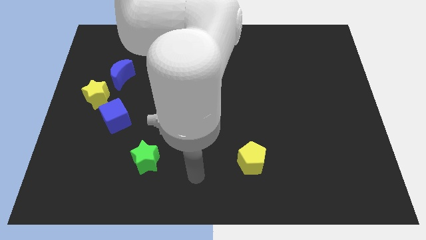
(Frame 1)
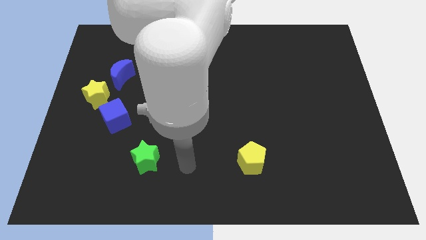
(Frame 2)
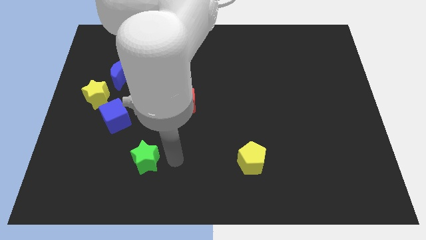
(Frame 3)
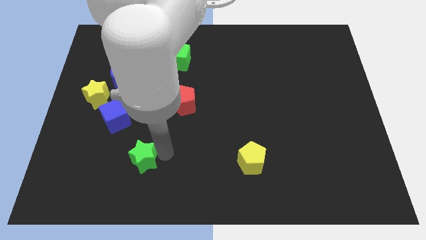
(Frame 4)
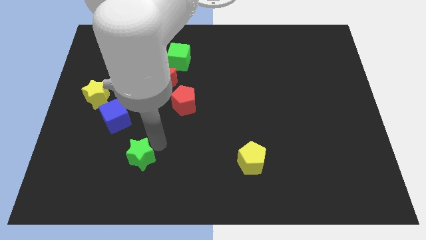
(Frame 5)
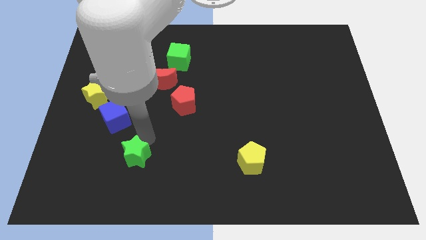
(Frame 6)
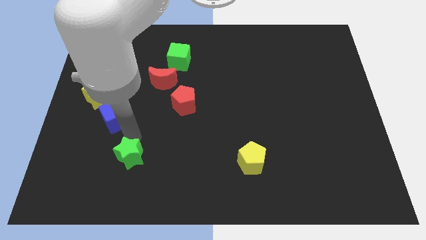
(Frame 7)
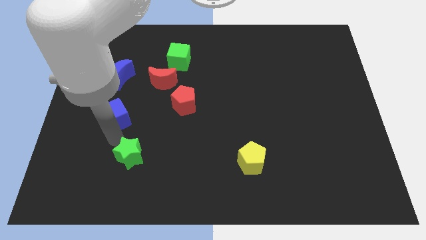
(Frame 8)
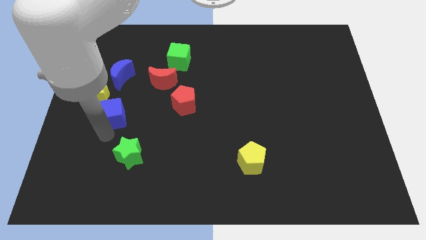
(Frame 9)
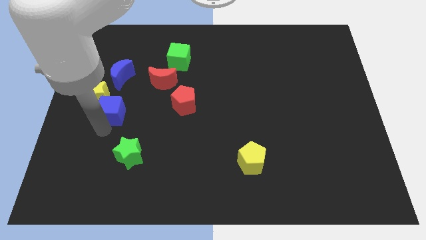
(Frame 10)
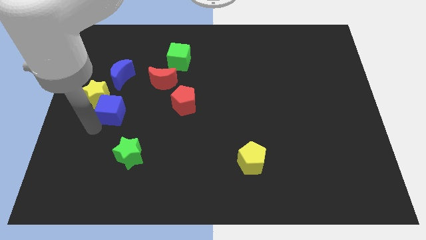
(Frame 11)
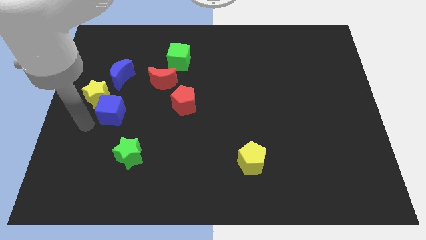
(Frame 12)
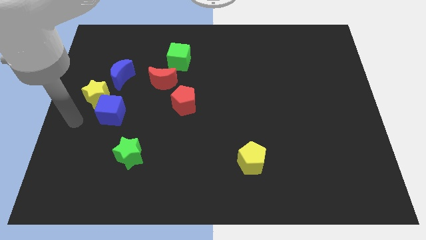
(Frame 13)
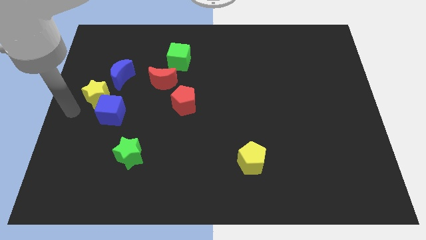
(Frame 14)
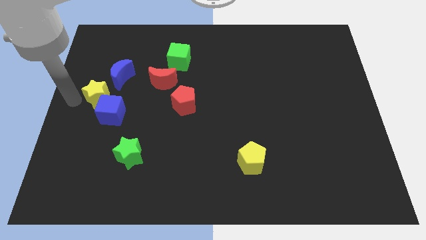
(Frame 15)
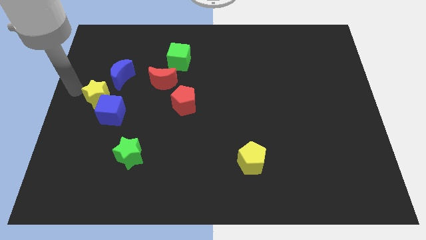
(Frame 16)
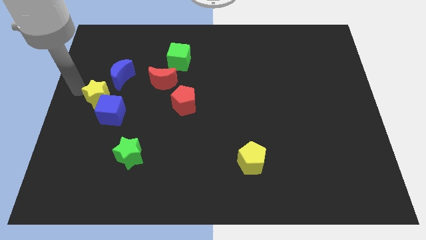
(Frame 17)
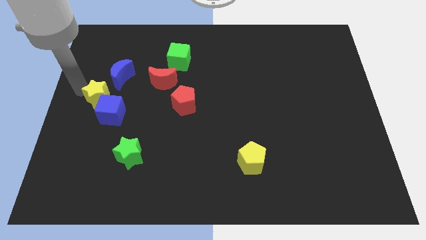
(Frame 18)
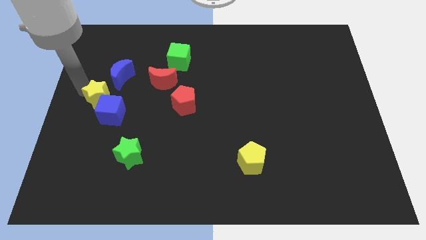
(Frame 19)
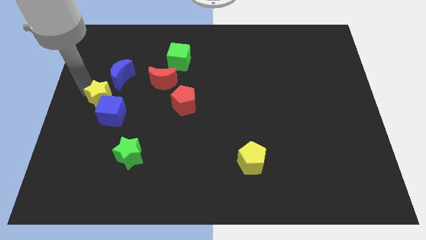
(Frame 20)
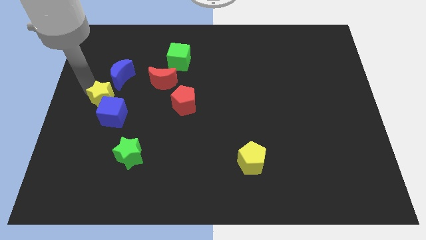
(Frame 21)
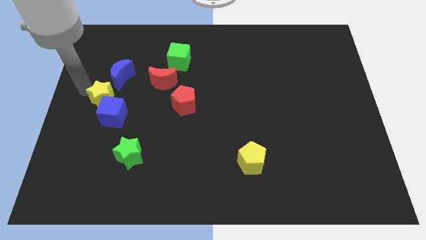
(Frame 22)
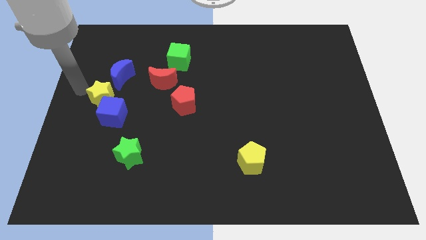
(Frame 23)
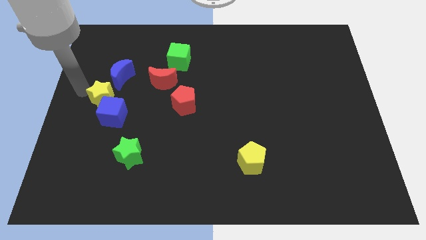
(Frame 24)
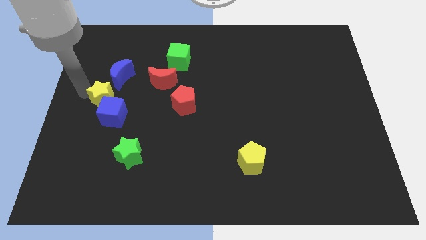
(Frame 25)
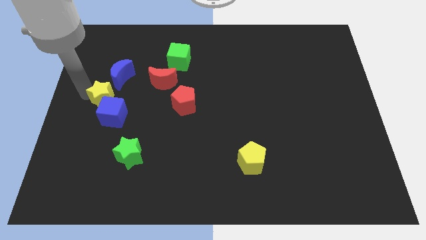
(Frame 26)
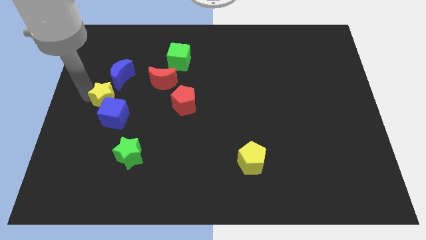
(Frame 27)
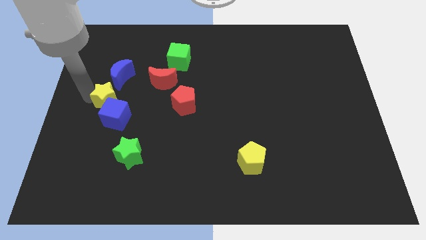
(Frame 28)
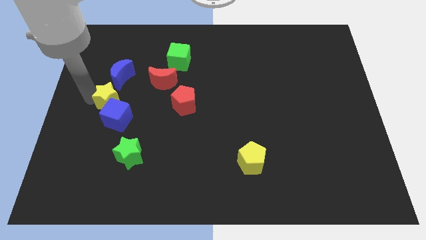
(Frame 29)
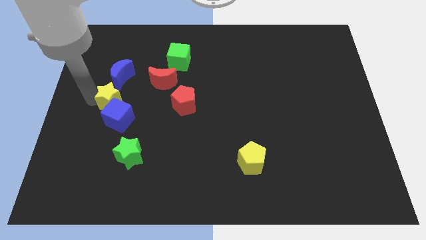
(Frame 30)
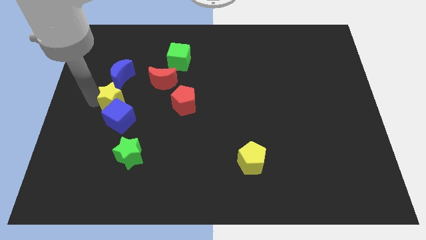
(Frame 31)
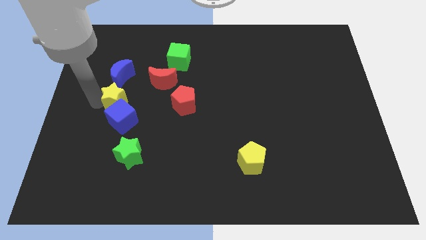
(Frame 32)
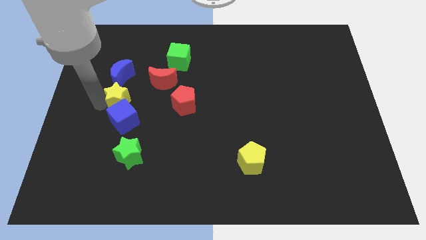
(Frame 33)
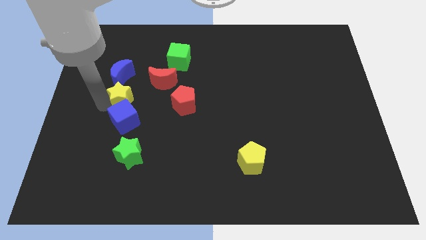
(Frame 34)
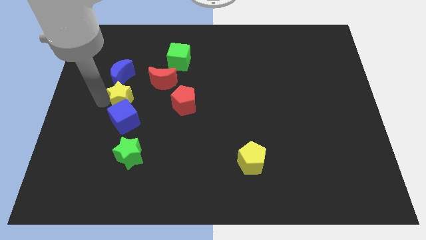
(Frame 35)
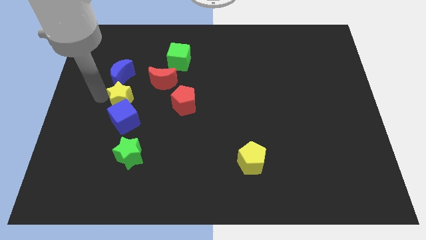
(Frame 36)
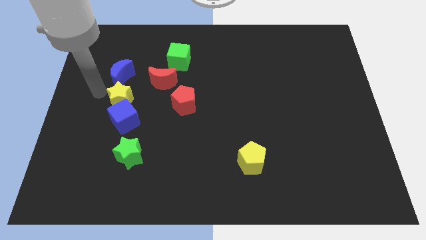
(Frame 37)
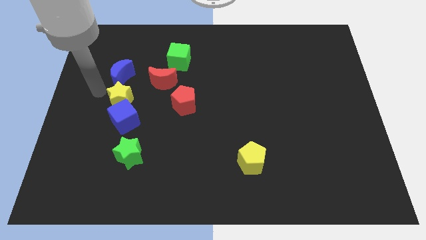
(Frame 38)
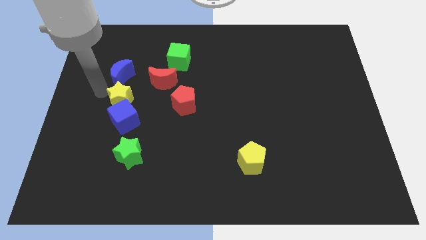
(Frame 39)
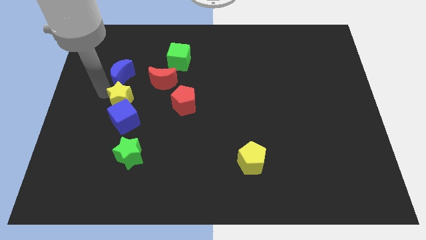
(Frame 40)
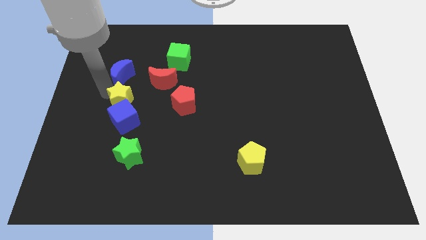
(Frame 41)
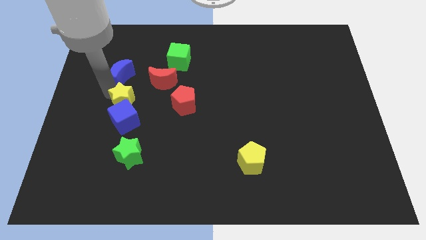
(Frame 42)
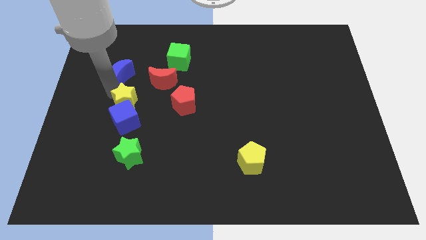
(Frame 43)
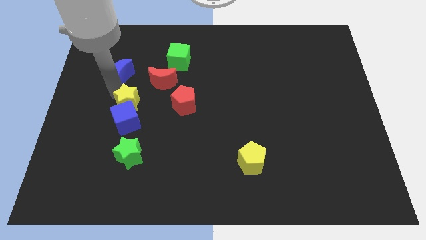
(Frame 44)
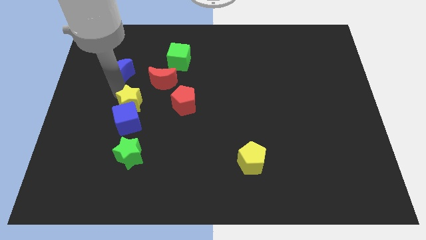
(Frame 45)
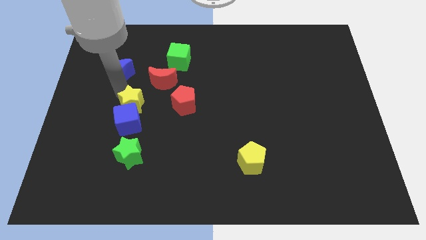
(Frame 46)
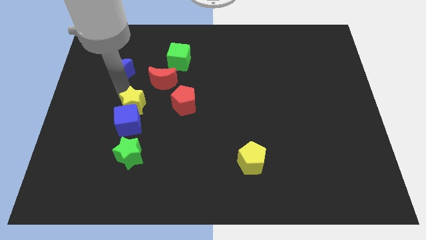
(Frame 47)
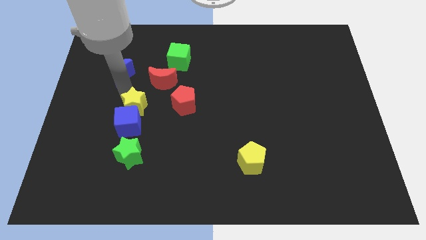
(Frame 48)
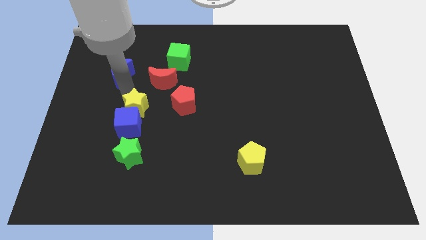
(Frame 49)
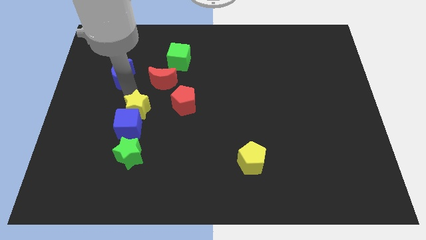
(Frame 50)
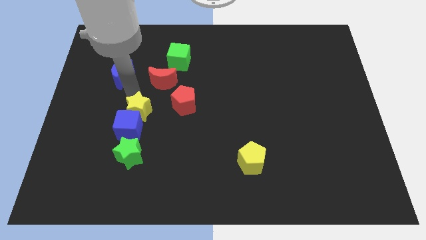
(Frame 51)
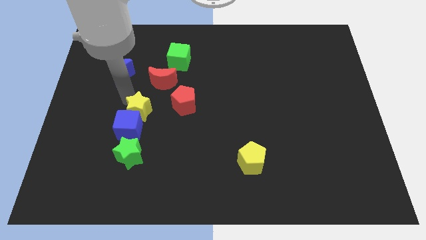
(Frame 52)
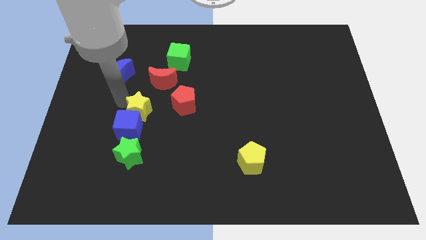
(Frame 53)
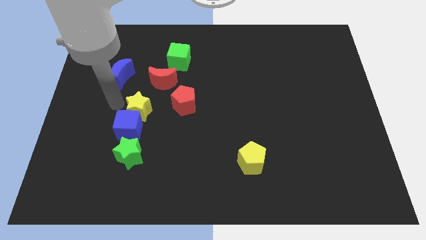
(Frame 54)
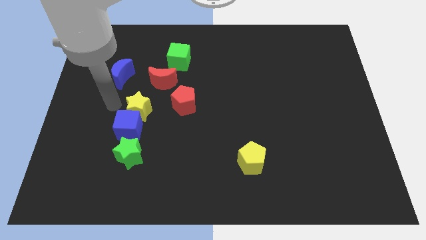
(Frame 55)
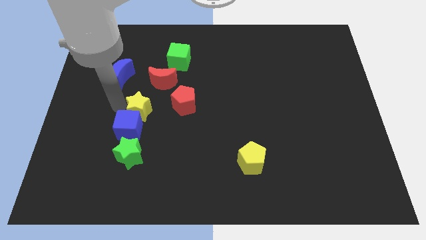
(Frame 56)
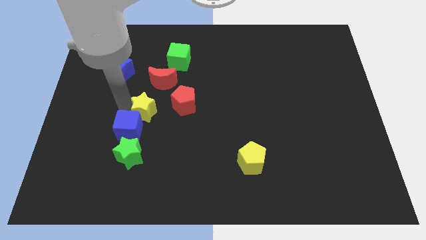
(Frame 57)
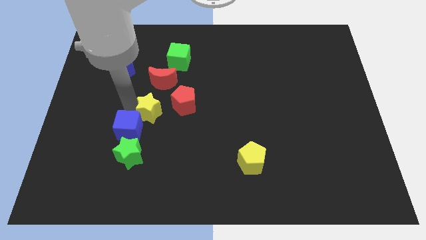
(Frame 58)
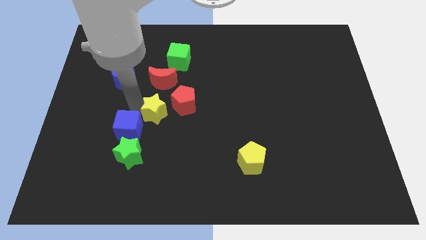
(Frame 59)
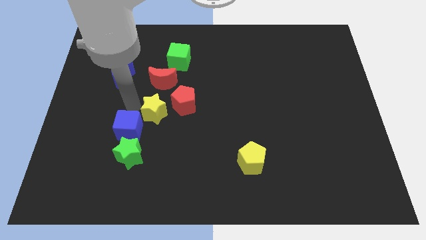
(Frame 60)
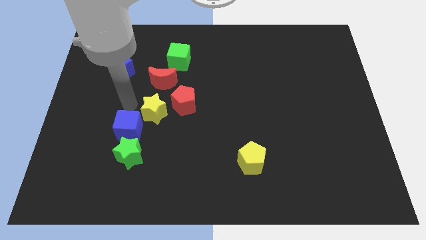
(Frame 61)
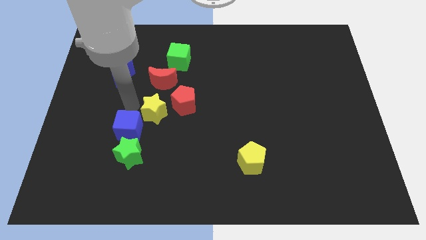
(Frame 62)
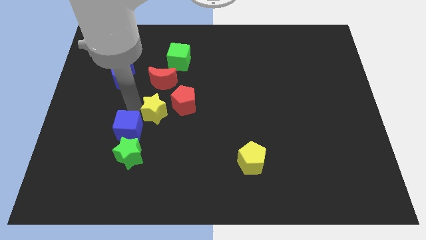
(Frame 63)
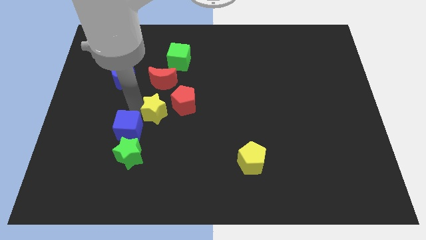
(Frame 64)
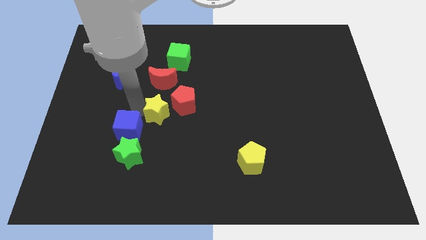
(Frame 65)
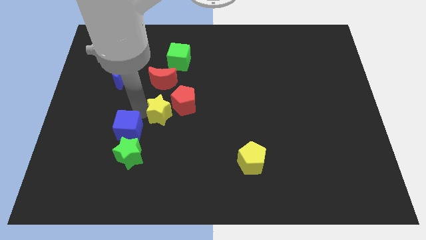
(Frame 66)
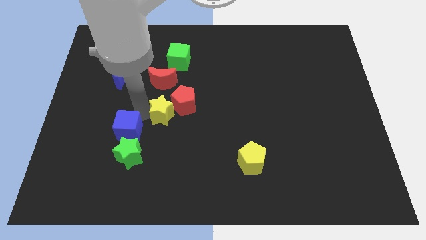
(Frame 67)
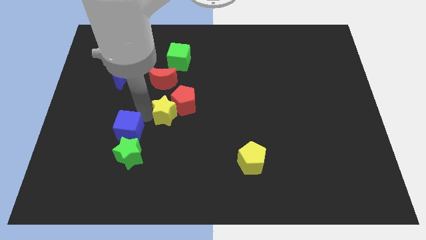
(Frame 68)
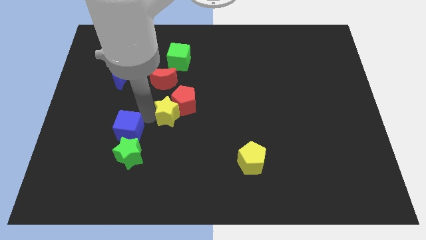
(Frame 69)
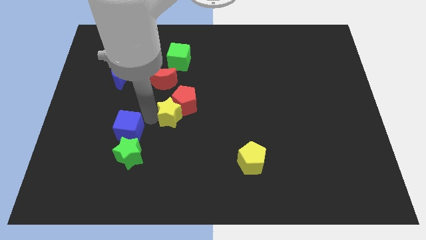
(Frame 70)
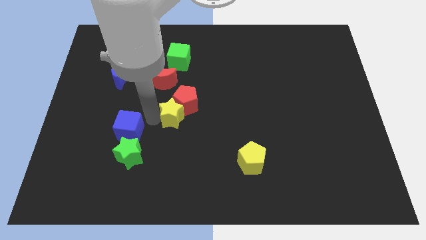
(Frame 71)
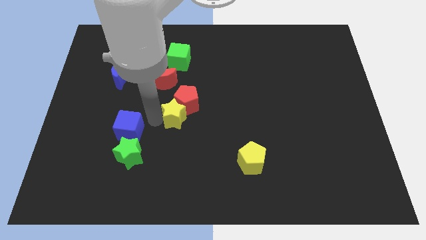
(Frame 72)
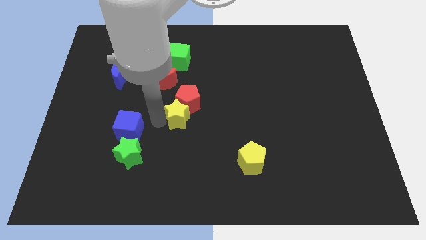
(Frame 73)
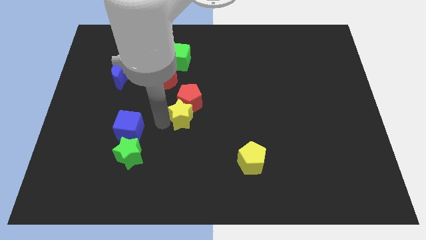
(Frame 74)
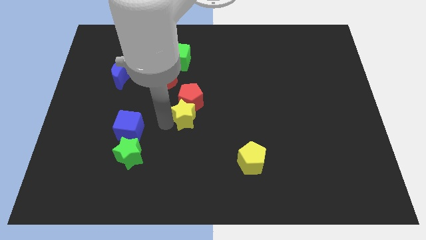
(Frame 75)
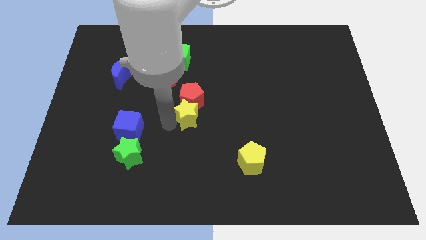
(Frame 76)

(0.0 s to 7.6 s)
push the yellow star right

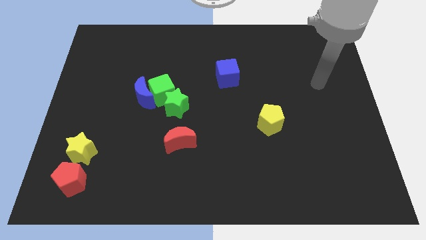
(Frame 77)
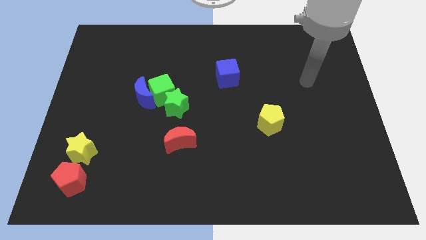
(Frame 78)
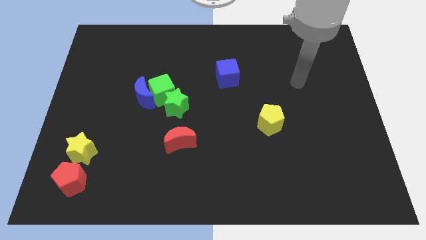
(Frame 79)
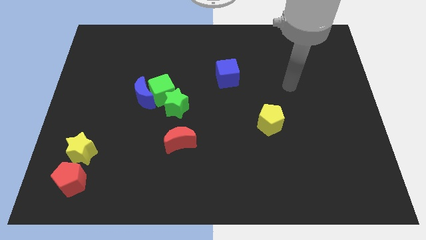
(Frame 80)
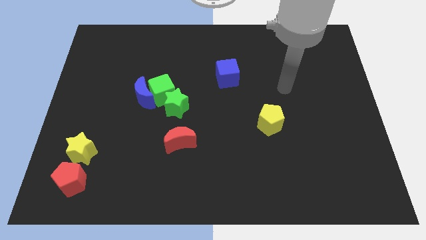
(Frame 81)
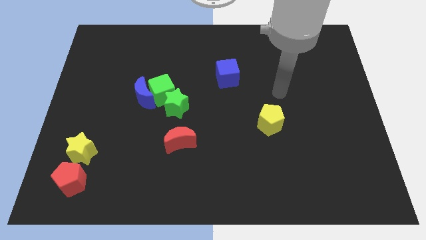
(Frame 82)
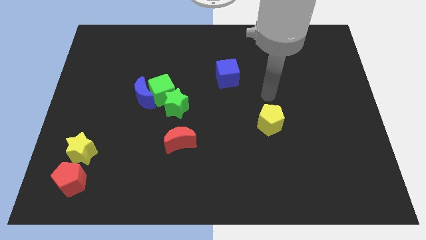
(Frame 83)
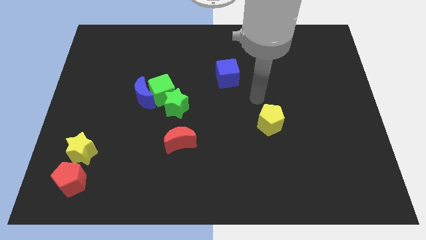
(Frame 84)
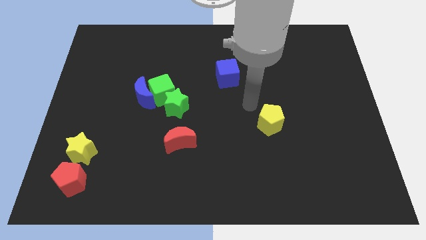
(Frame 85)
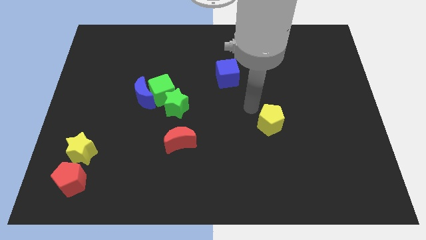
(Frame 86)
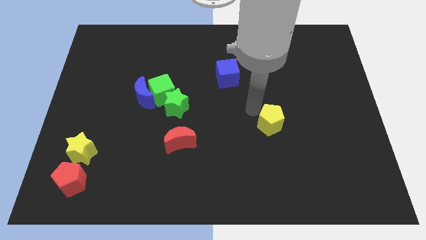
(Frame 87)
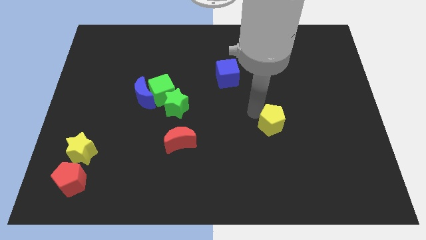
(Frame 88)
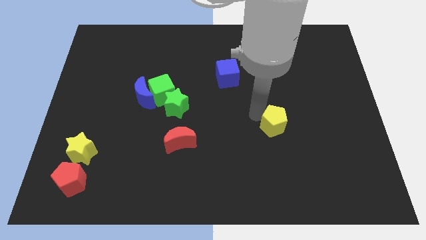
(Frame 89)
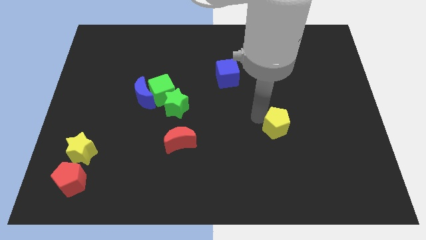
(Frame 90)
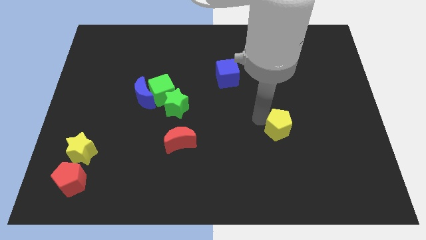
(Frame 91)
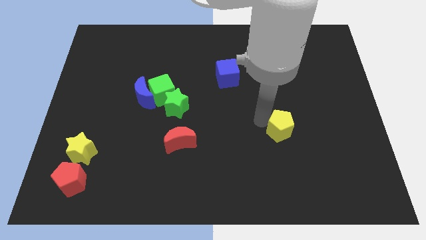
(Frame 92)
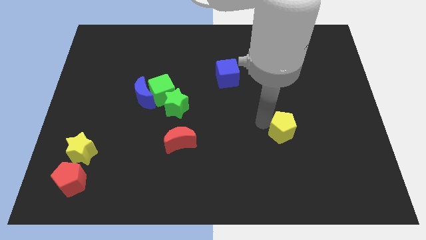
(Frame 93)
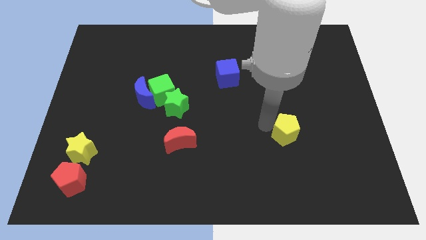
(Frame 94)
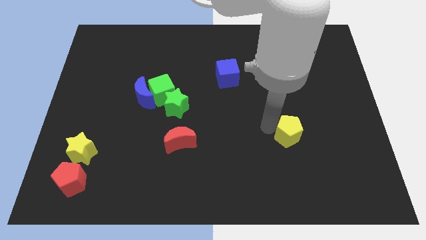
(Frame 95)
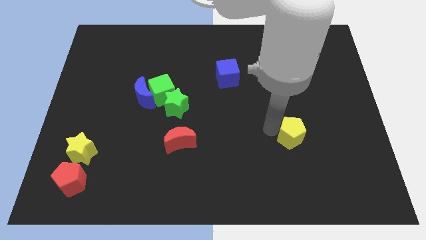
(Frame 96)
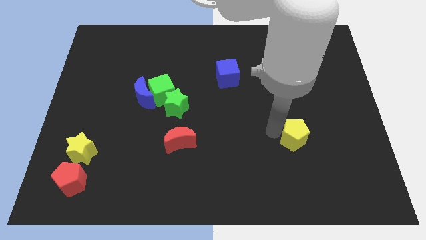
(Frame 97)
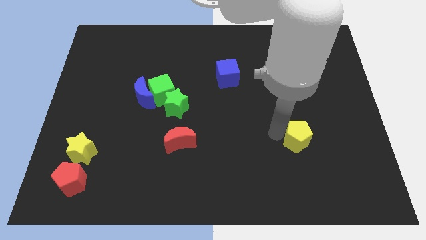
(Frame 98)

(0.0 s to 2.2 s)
slide the yellow pentagon downwards and then right slightly
